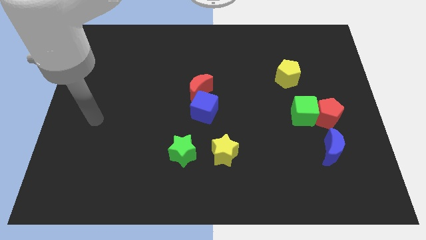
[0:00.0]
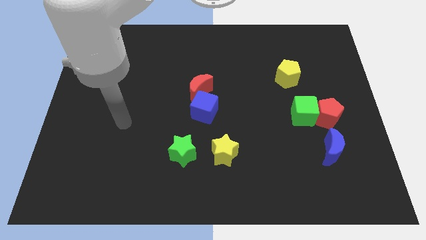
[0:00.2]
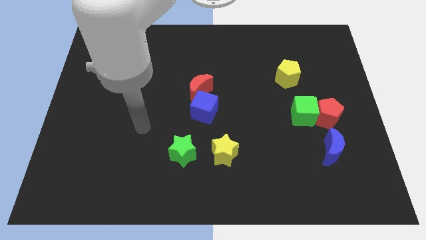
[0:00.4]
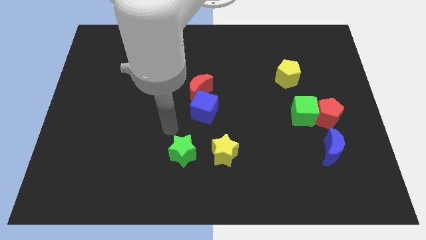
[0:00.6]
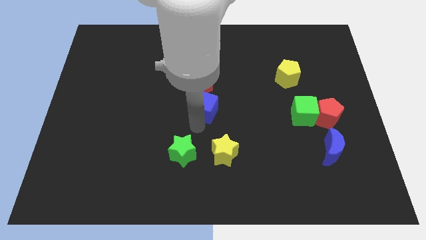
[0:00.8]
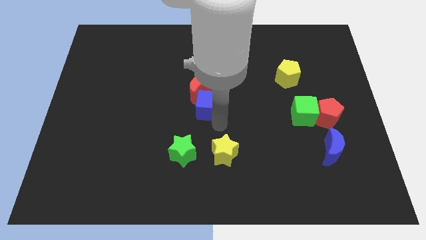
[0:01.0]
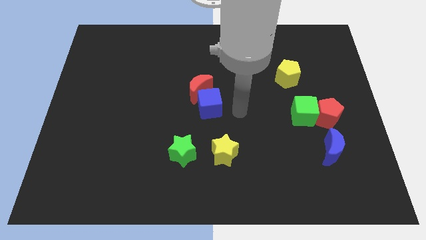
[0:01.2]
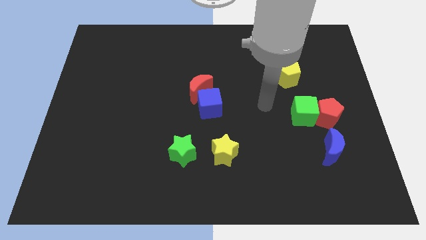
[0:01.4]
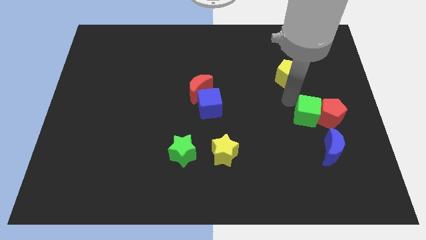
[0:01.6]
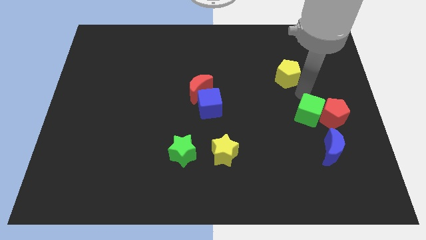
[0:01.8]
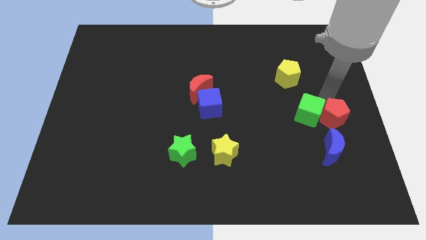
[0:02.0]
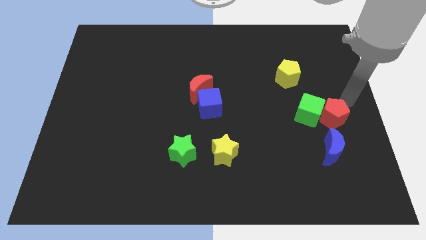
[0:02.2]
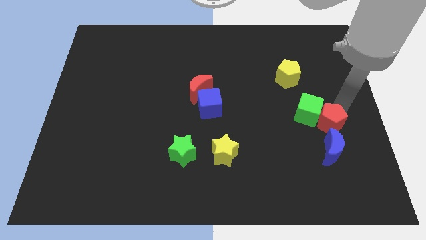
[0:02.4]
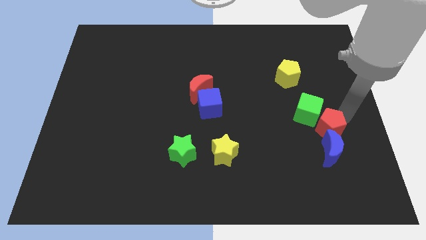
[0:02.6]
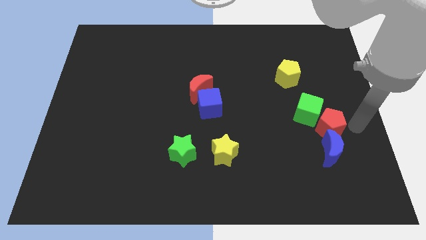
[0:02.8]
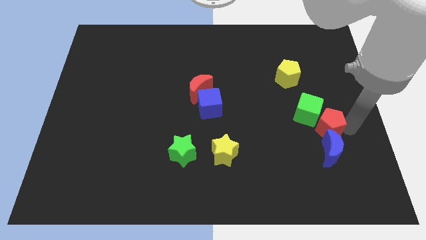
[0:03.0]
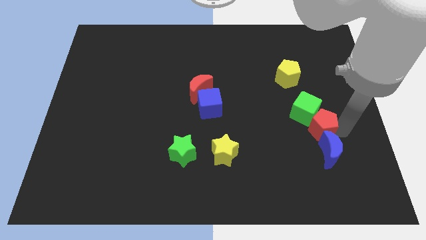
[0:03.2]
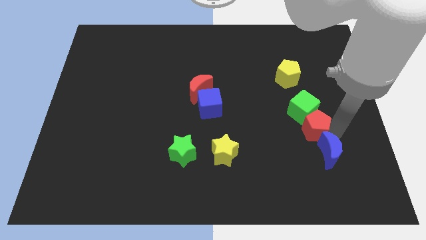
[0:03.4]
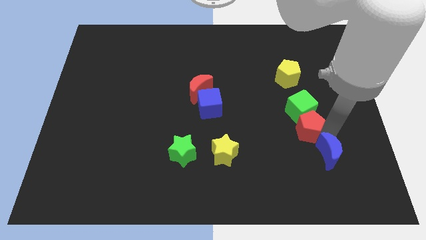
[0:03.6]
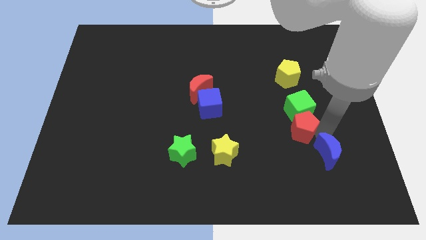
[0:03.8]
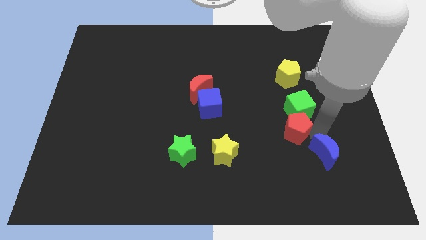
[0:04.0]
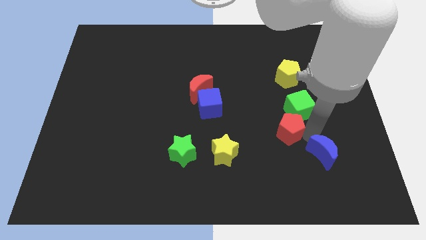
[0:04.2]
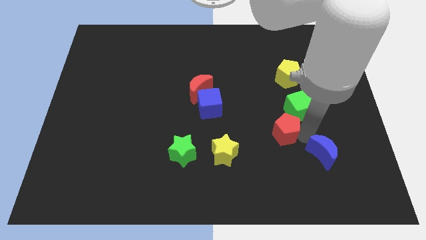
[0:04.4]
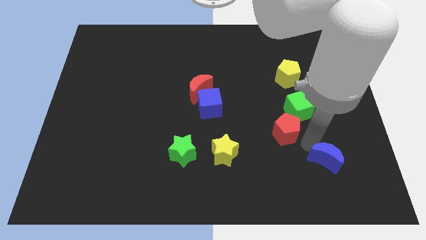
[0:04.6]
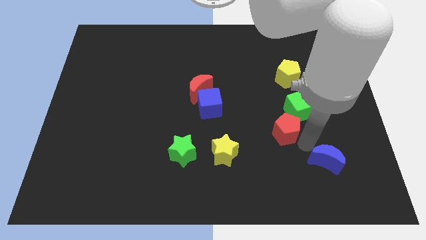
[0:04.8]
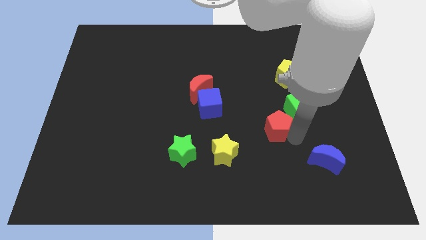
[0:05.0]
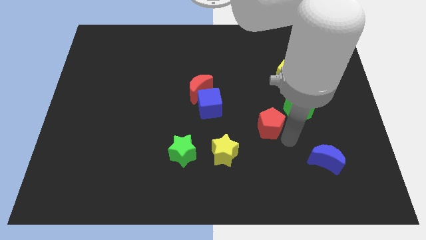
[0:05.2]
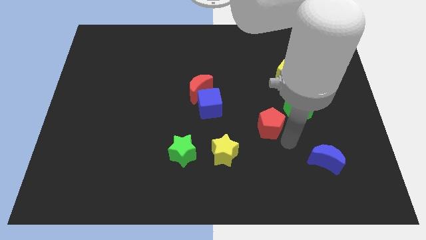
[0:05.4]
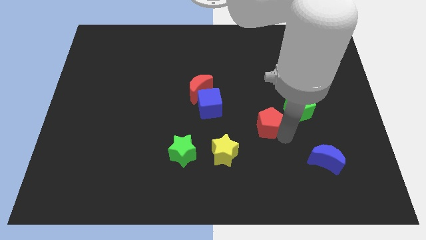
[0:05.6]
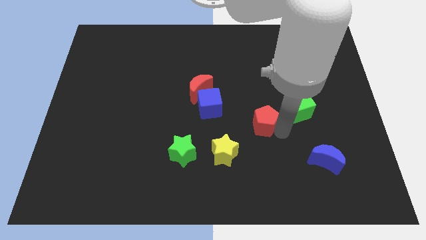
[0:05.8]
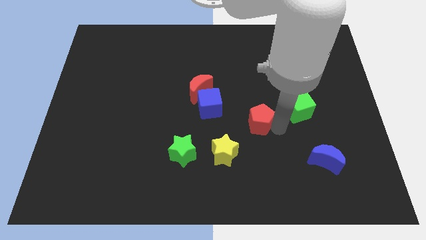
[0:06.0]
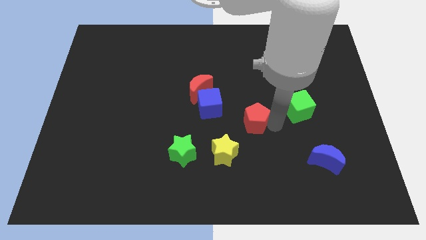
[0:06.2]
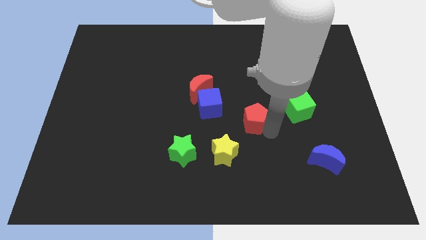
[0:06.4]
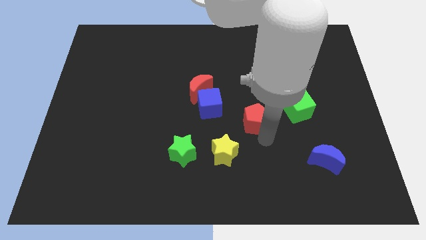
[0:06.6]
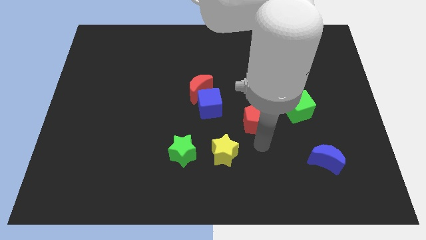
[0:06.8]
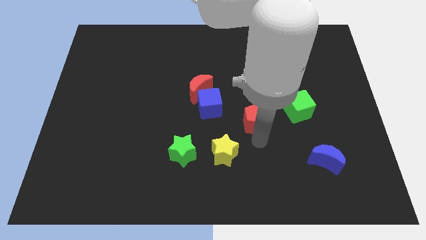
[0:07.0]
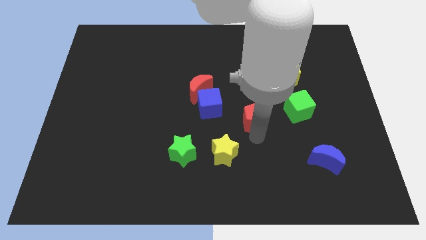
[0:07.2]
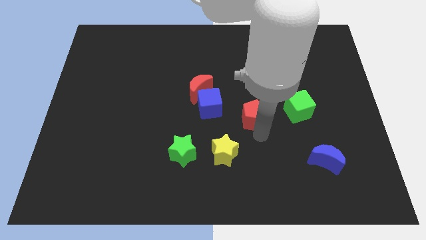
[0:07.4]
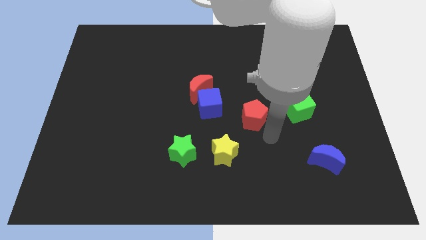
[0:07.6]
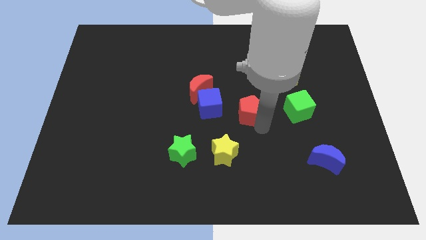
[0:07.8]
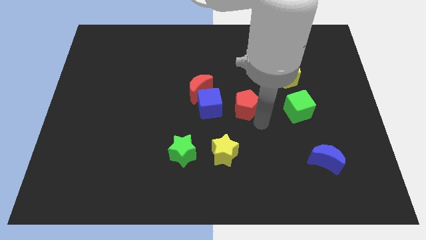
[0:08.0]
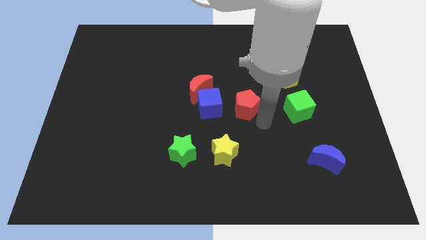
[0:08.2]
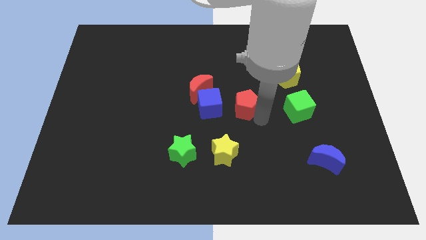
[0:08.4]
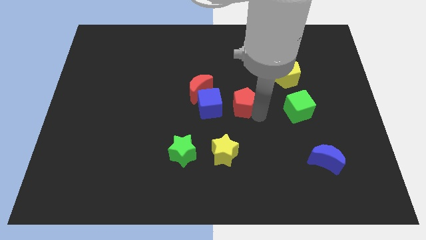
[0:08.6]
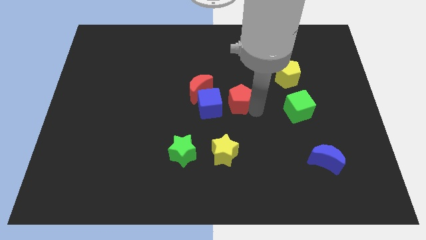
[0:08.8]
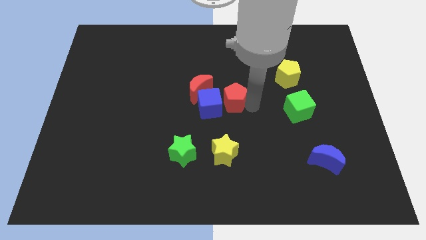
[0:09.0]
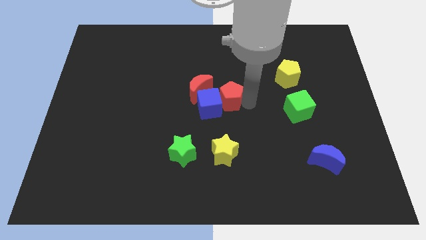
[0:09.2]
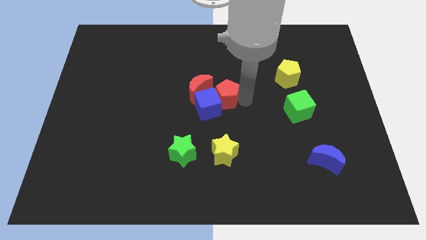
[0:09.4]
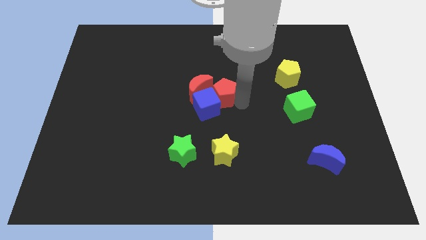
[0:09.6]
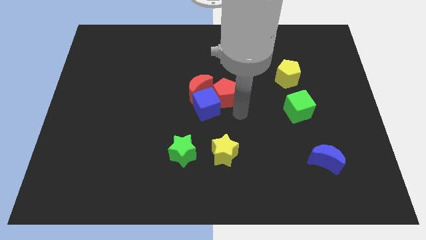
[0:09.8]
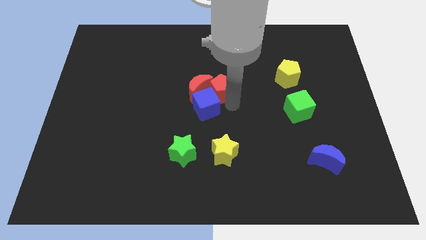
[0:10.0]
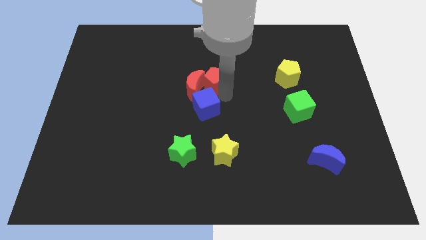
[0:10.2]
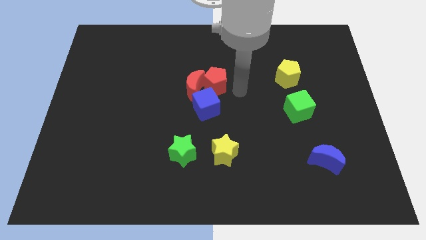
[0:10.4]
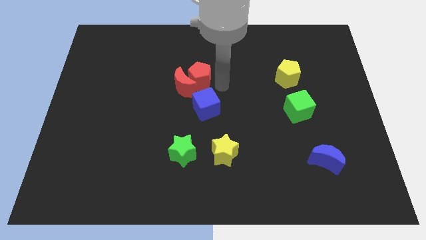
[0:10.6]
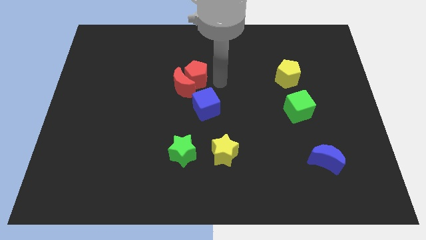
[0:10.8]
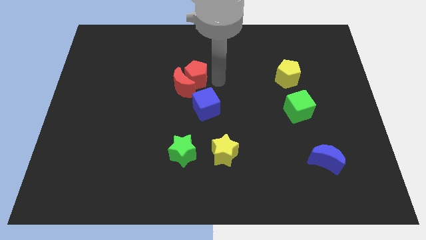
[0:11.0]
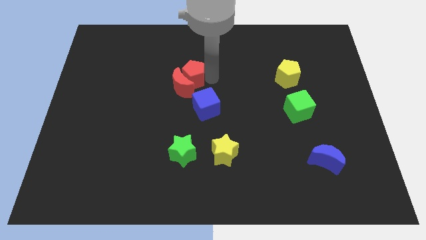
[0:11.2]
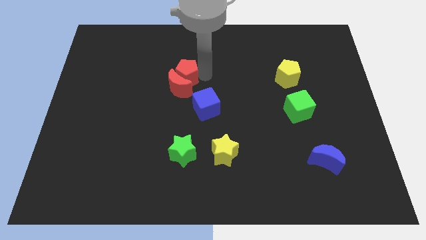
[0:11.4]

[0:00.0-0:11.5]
move the red pentagon to the top left of the red moon

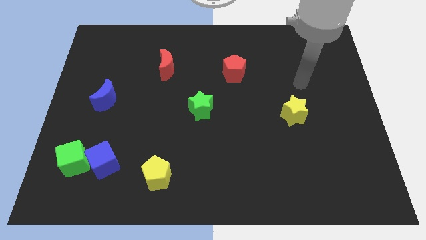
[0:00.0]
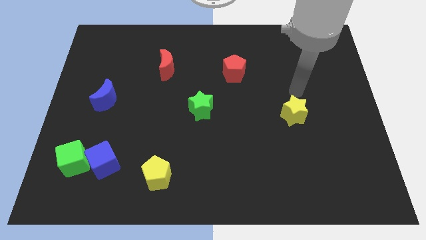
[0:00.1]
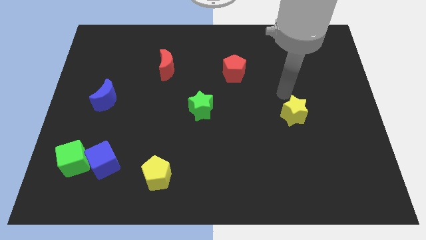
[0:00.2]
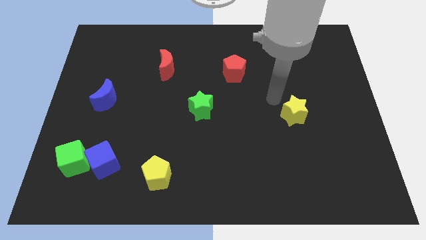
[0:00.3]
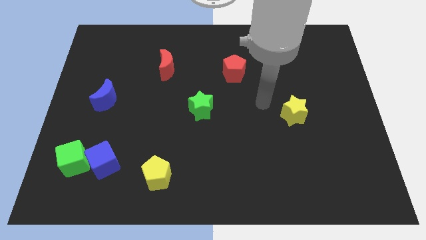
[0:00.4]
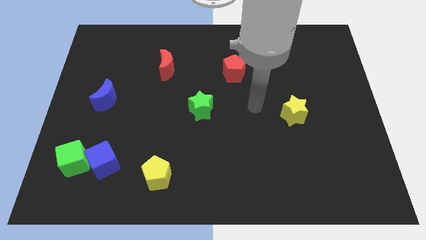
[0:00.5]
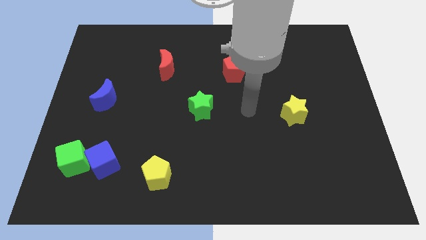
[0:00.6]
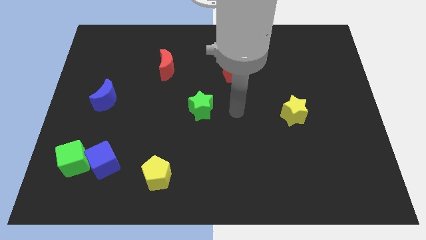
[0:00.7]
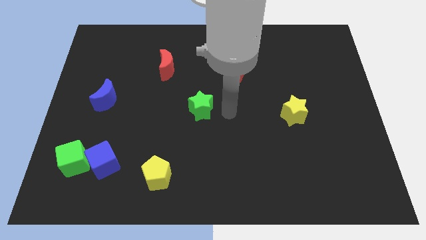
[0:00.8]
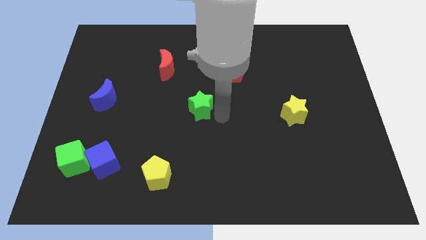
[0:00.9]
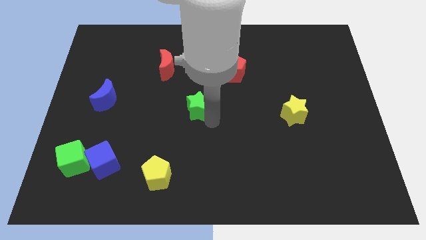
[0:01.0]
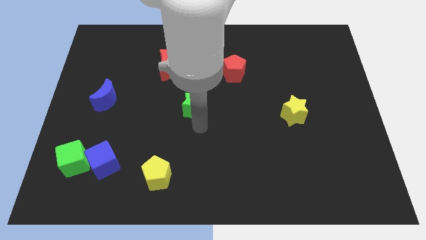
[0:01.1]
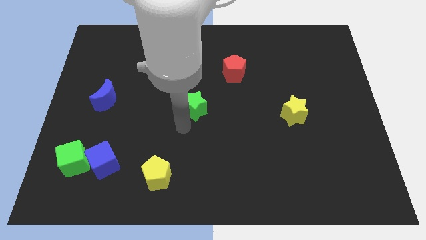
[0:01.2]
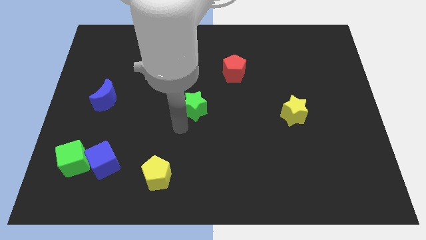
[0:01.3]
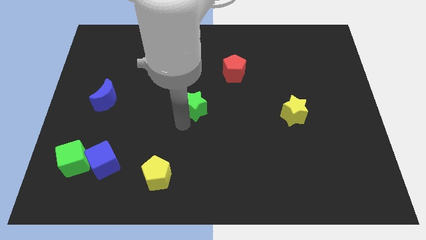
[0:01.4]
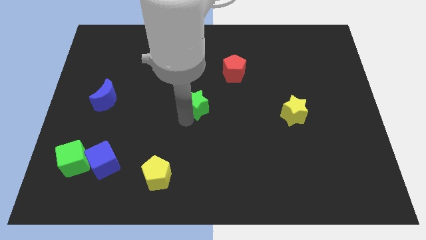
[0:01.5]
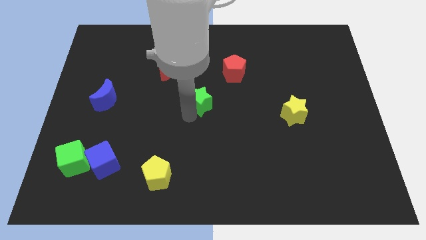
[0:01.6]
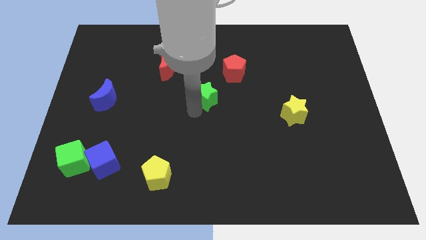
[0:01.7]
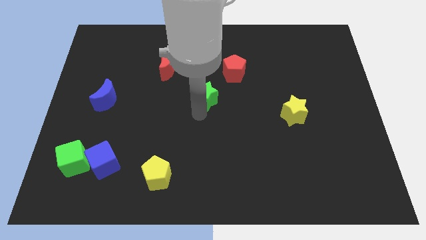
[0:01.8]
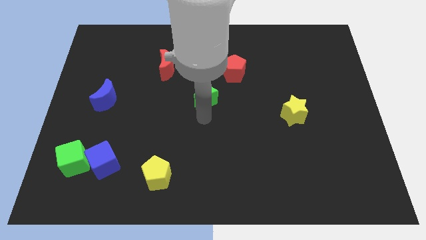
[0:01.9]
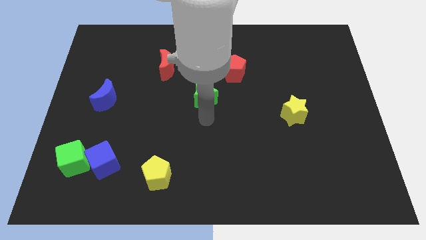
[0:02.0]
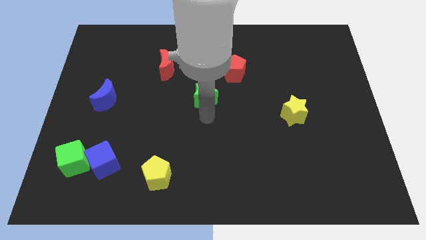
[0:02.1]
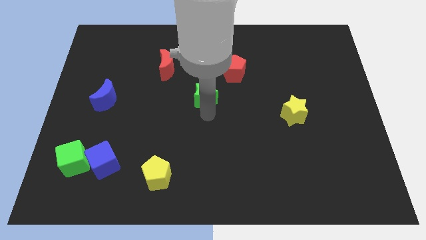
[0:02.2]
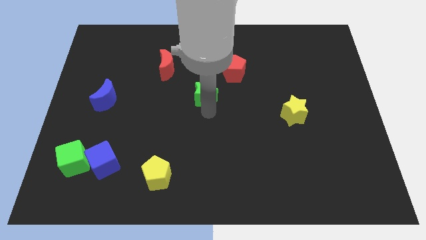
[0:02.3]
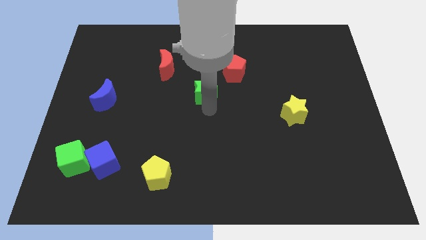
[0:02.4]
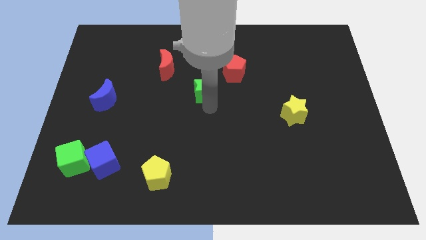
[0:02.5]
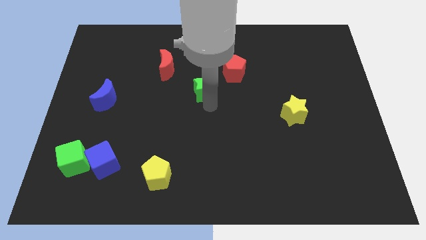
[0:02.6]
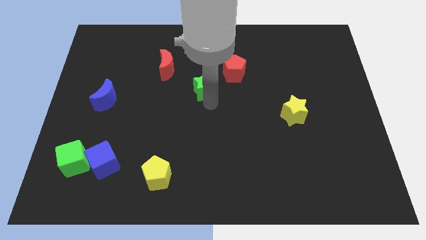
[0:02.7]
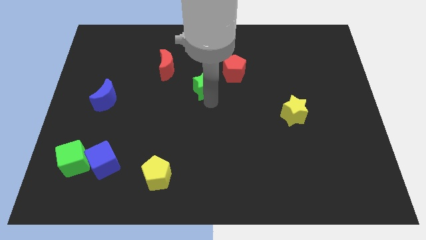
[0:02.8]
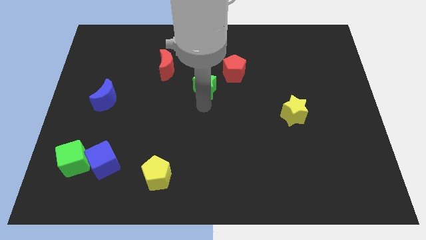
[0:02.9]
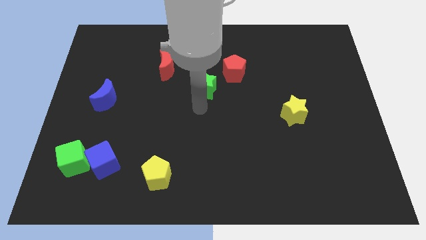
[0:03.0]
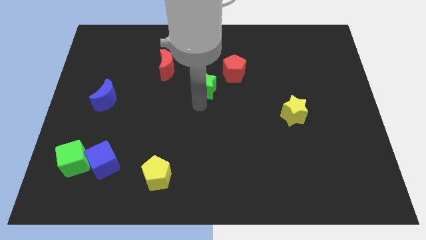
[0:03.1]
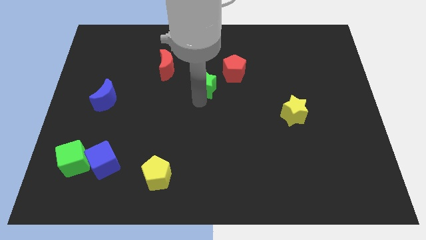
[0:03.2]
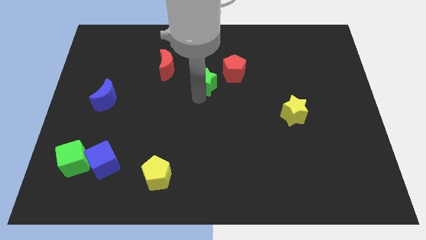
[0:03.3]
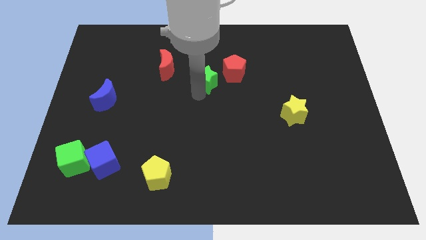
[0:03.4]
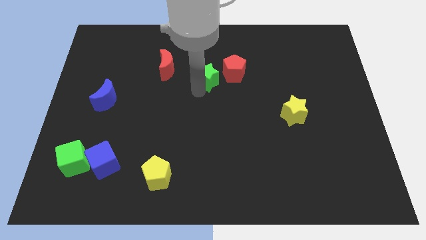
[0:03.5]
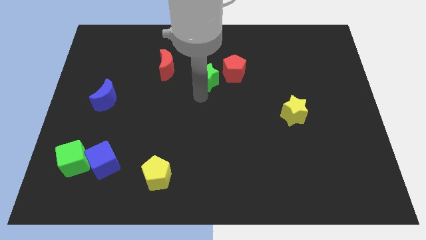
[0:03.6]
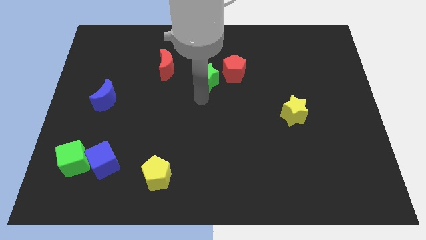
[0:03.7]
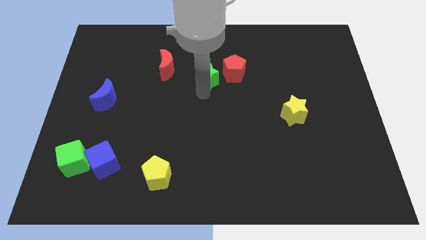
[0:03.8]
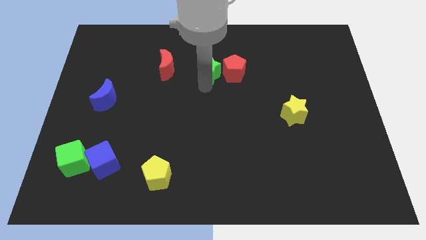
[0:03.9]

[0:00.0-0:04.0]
put the green star diagonally up and to the left of the red pentagon
